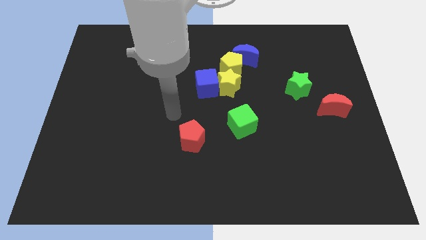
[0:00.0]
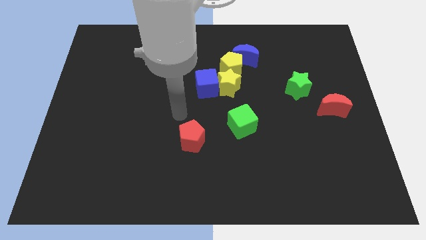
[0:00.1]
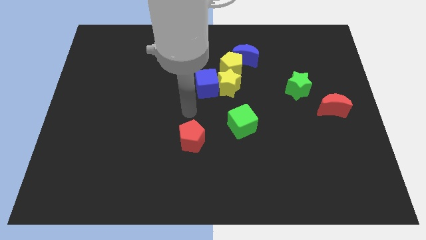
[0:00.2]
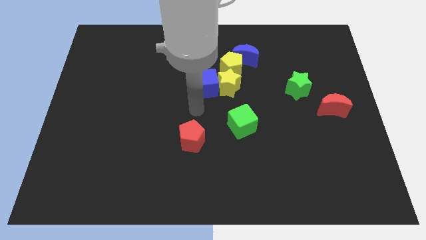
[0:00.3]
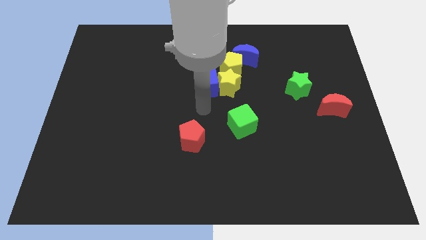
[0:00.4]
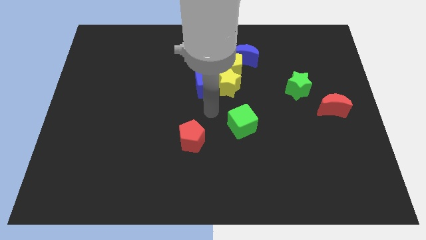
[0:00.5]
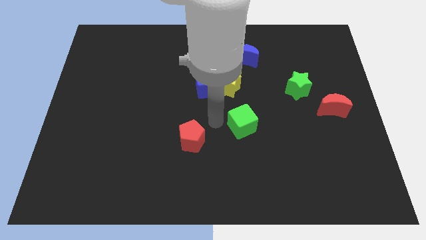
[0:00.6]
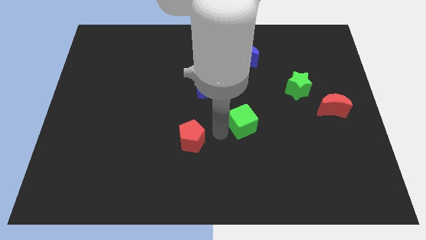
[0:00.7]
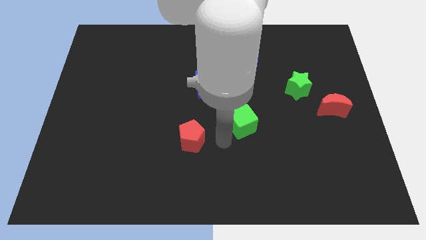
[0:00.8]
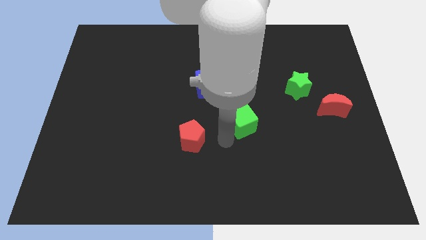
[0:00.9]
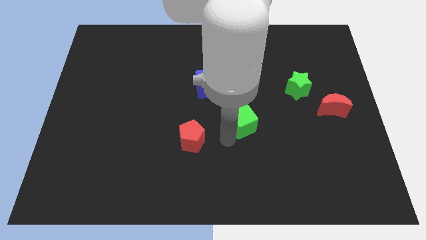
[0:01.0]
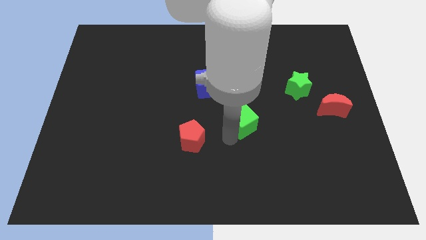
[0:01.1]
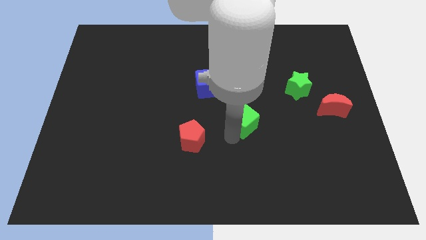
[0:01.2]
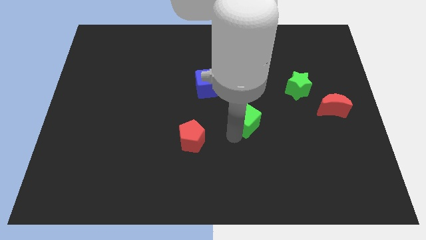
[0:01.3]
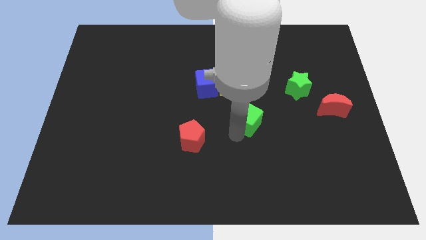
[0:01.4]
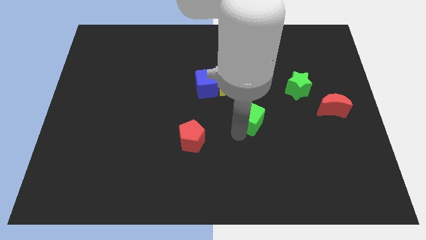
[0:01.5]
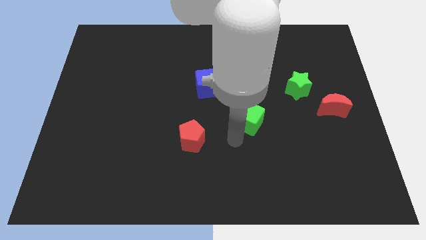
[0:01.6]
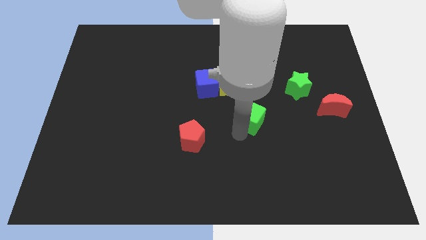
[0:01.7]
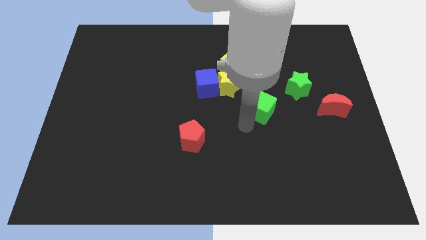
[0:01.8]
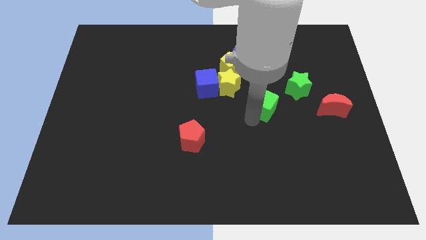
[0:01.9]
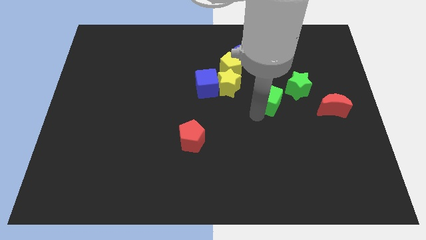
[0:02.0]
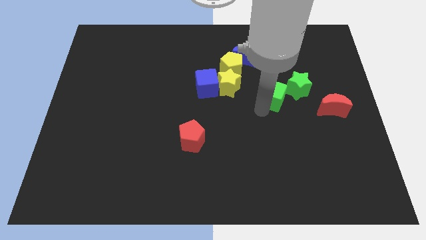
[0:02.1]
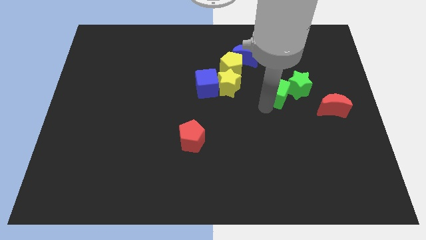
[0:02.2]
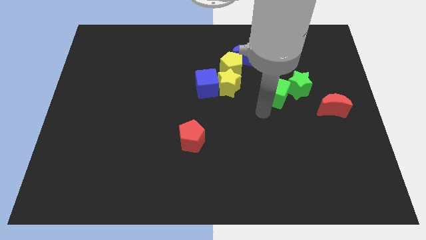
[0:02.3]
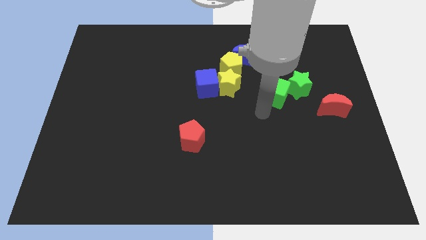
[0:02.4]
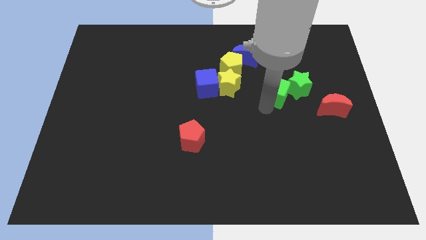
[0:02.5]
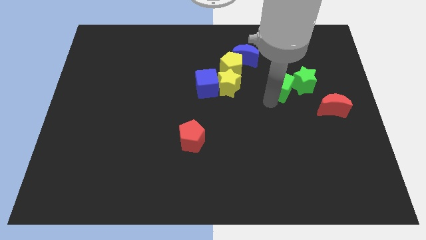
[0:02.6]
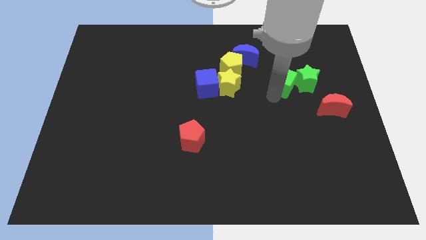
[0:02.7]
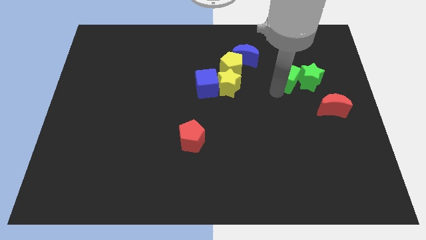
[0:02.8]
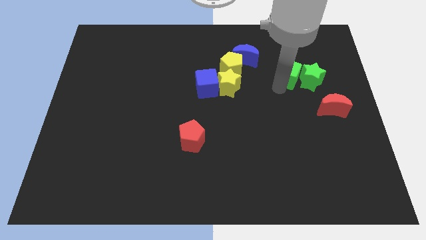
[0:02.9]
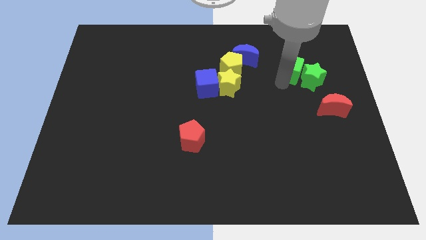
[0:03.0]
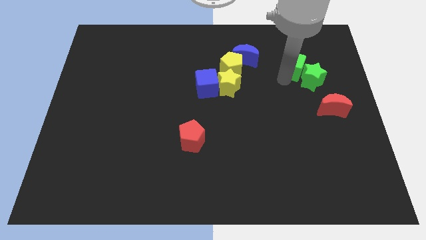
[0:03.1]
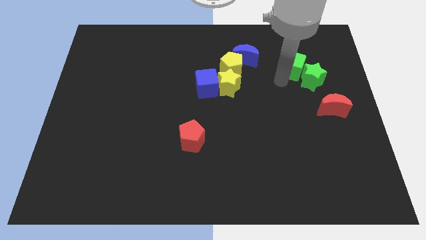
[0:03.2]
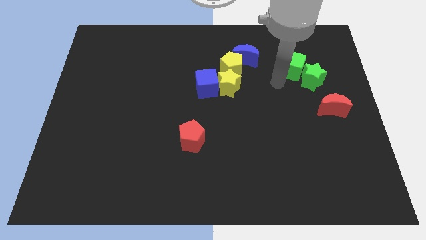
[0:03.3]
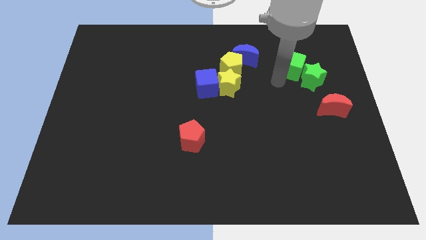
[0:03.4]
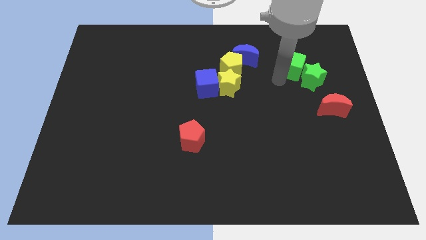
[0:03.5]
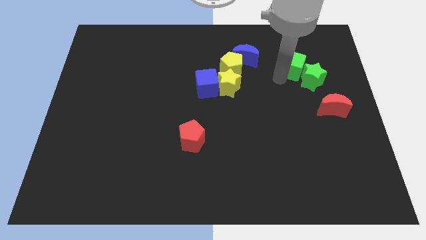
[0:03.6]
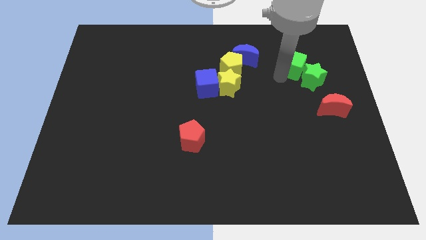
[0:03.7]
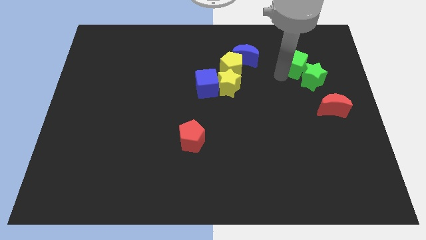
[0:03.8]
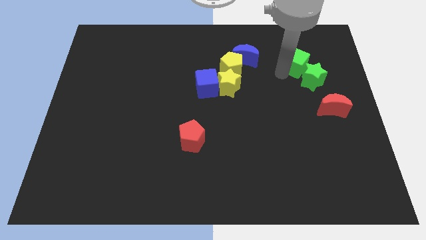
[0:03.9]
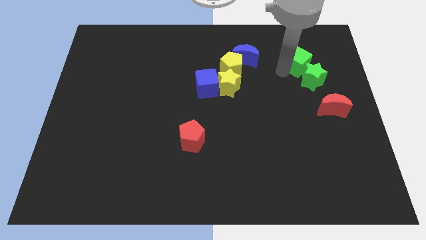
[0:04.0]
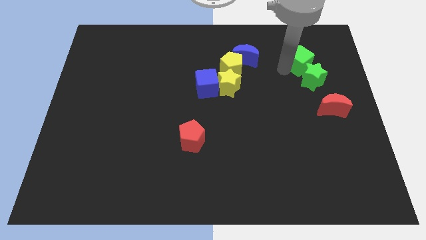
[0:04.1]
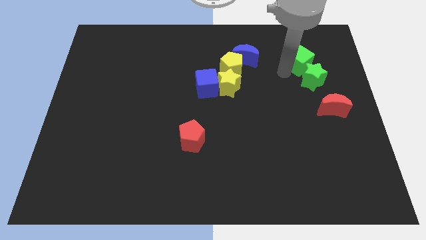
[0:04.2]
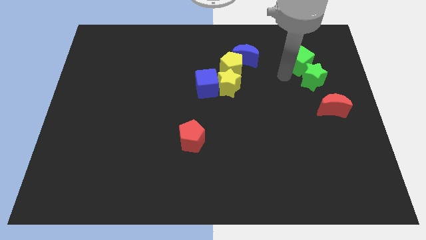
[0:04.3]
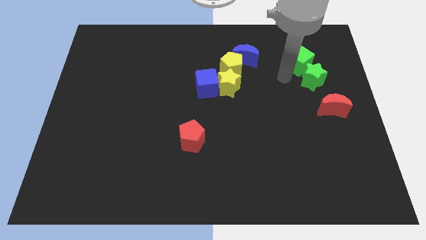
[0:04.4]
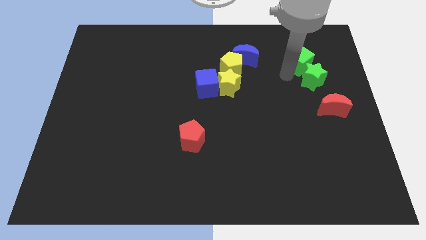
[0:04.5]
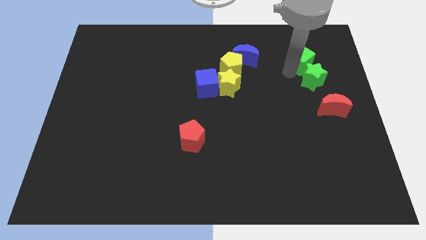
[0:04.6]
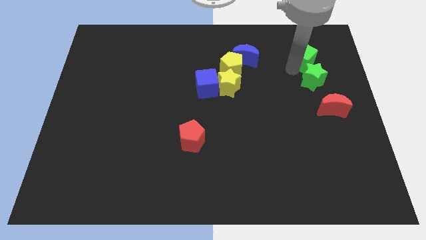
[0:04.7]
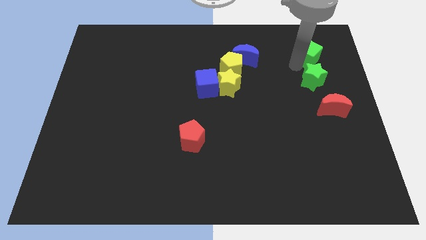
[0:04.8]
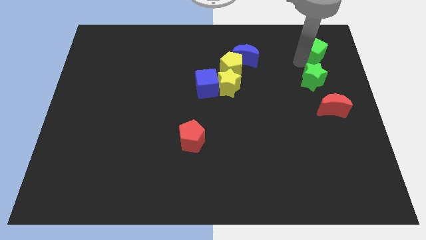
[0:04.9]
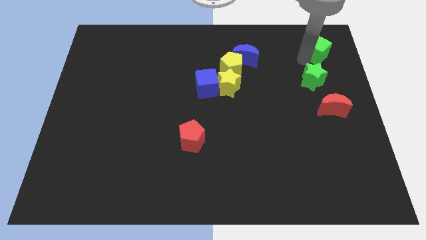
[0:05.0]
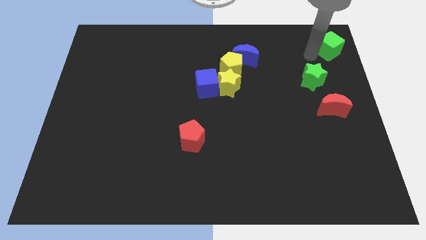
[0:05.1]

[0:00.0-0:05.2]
put the green cube to the top right of the board
